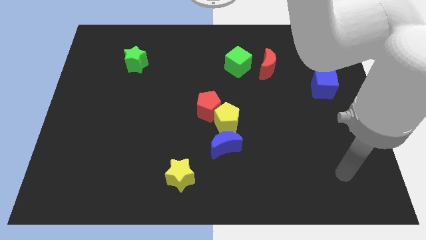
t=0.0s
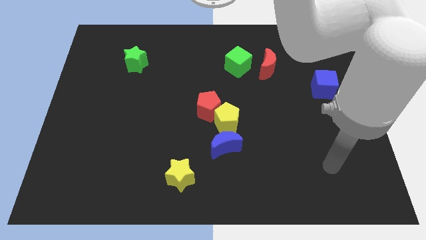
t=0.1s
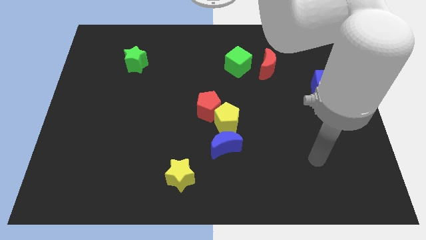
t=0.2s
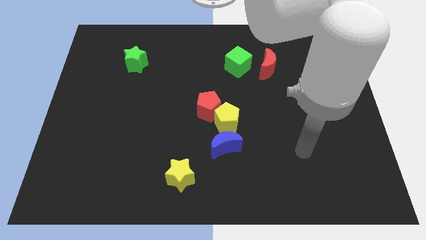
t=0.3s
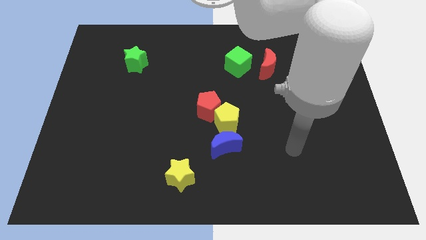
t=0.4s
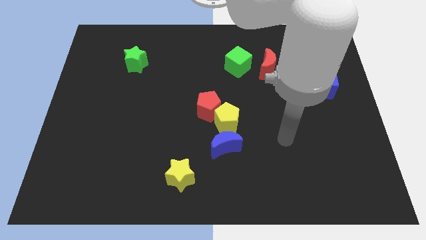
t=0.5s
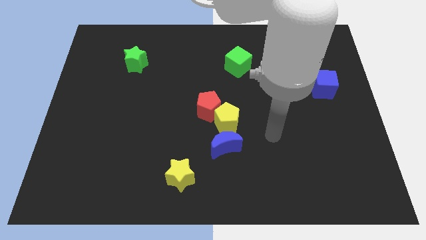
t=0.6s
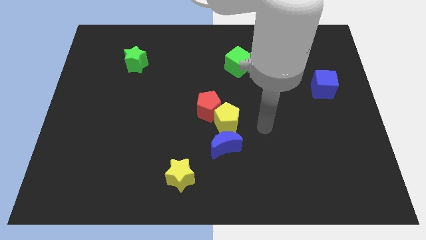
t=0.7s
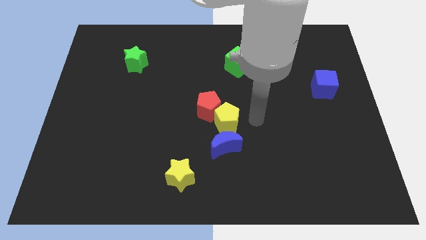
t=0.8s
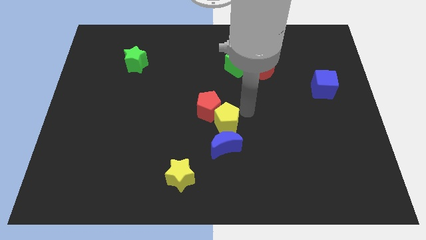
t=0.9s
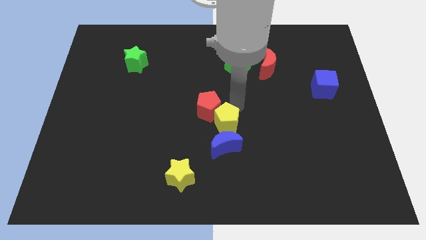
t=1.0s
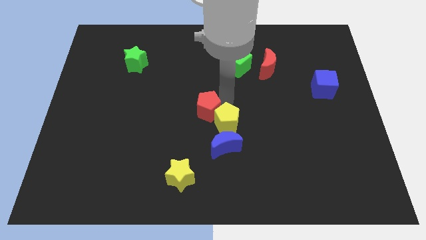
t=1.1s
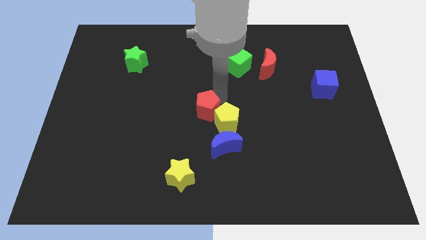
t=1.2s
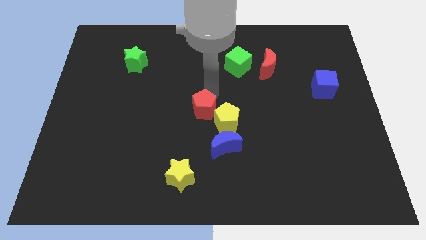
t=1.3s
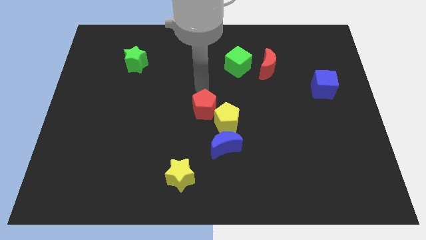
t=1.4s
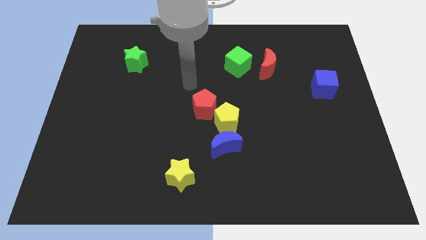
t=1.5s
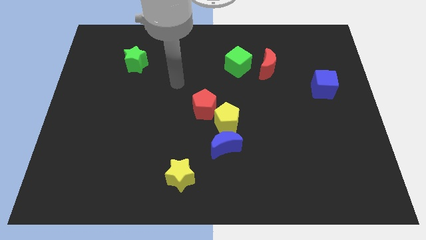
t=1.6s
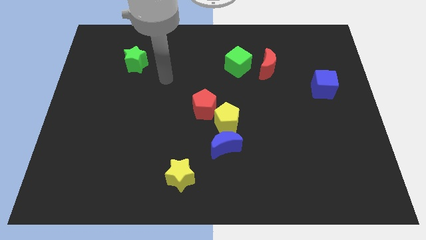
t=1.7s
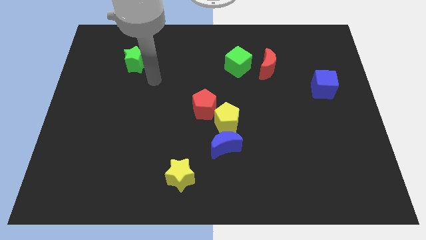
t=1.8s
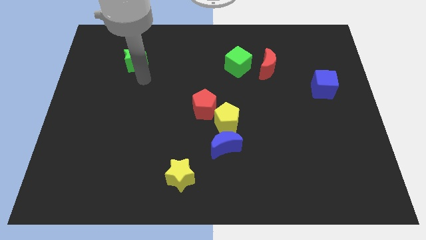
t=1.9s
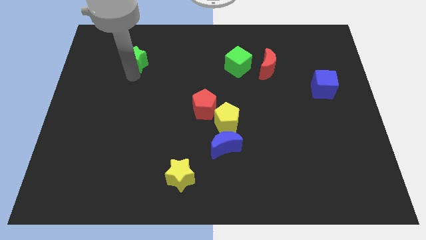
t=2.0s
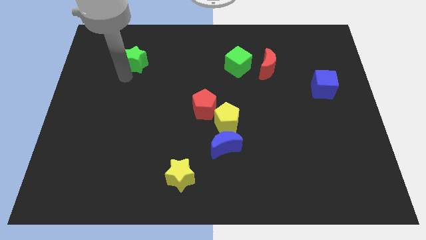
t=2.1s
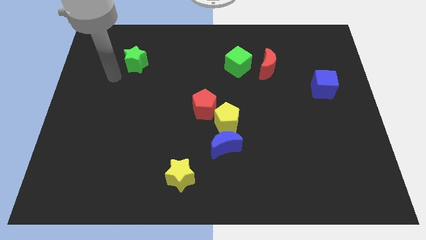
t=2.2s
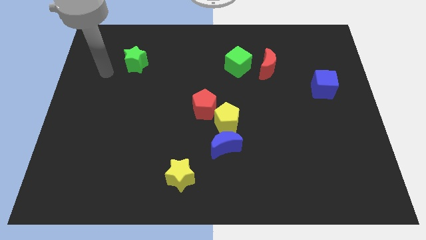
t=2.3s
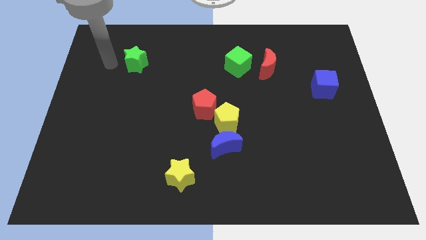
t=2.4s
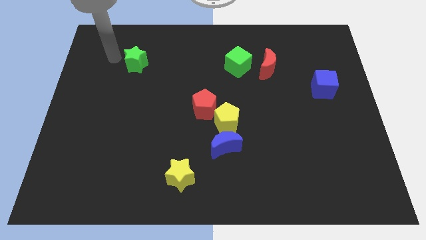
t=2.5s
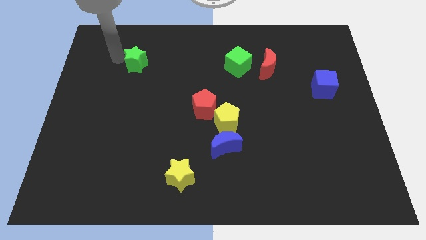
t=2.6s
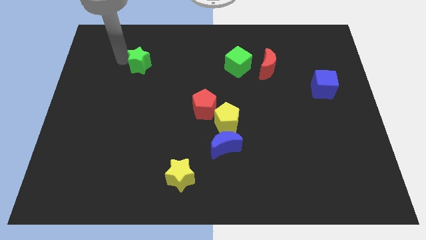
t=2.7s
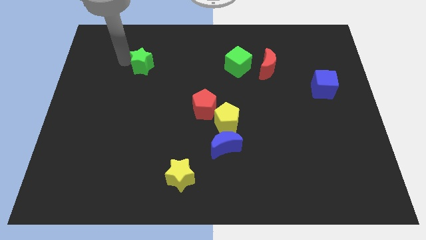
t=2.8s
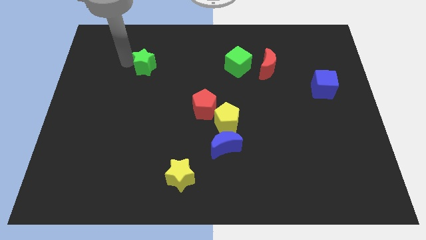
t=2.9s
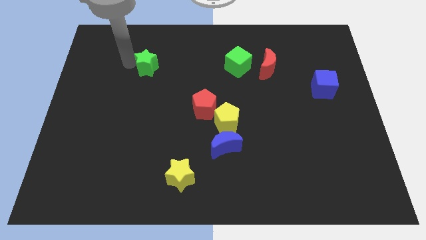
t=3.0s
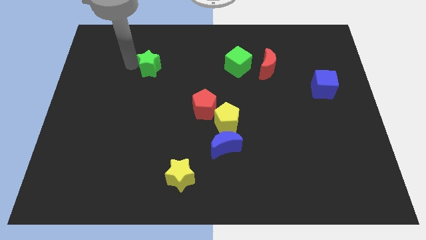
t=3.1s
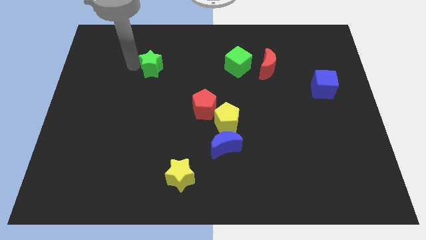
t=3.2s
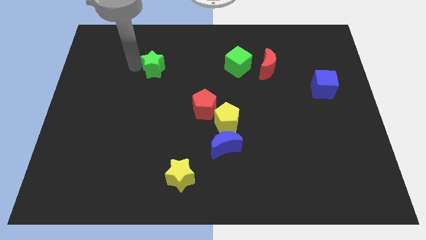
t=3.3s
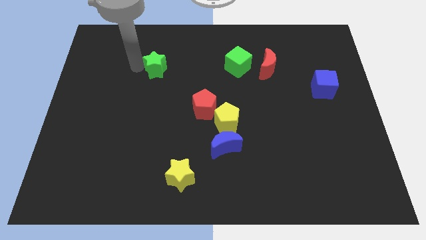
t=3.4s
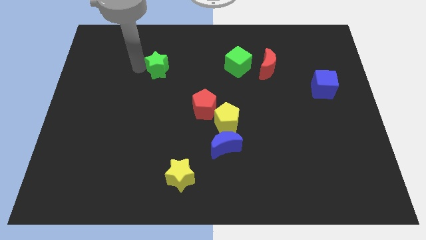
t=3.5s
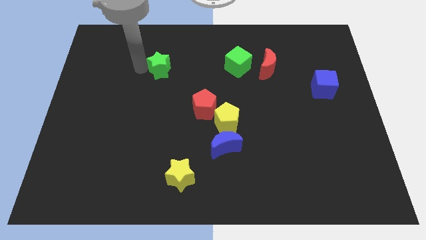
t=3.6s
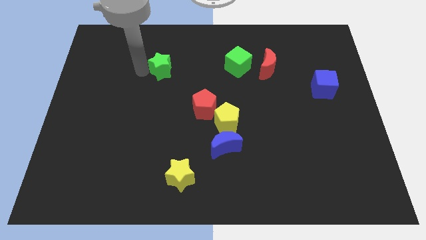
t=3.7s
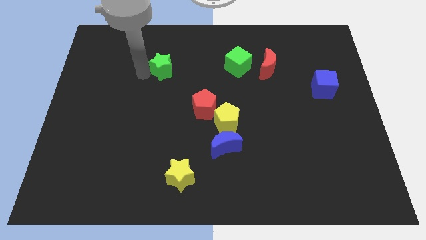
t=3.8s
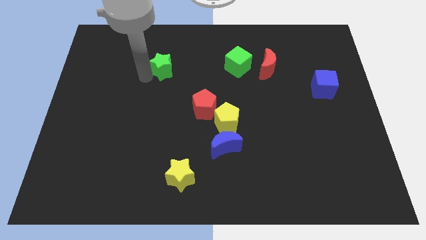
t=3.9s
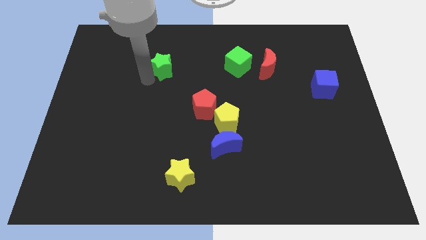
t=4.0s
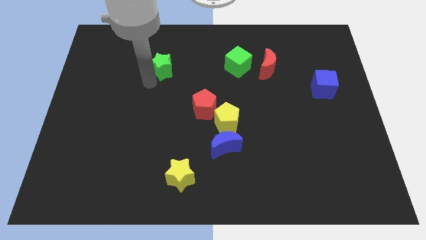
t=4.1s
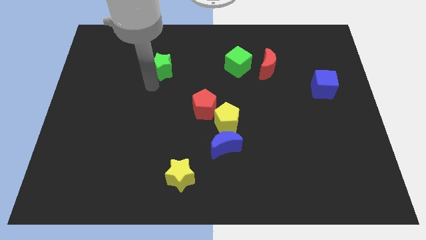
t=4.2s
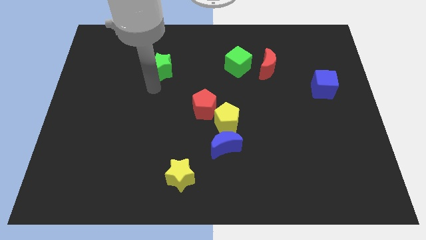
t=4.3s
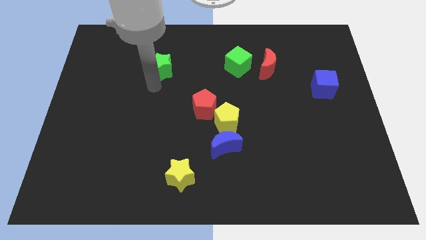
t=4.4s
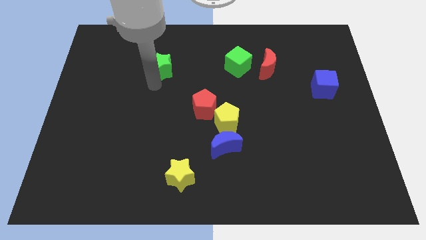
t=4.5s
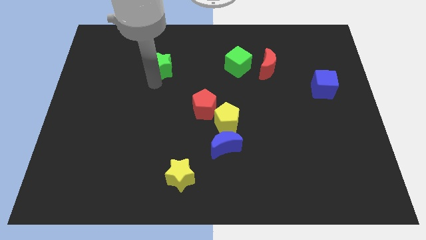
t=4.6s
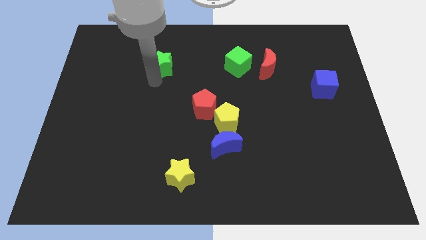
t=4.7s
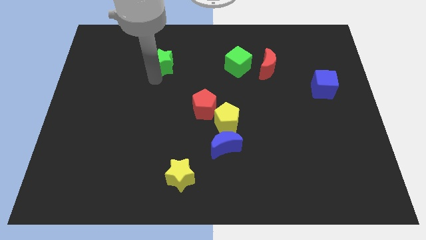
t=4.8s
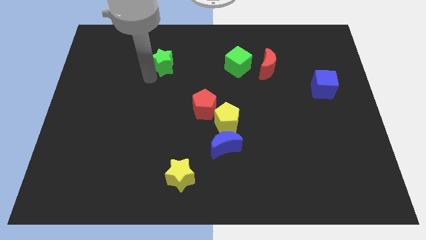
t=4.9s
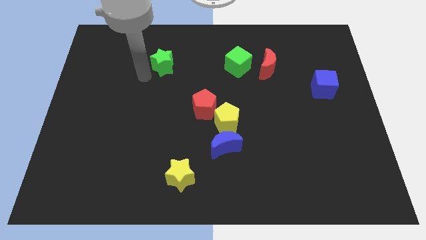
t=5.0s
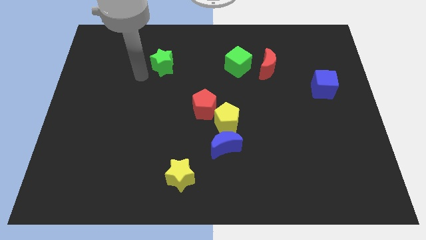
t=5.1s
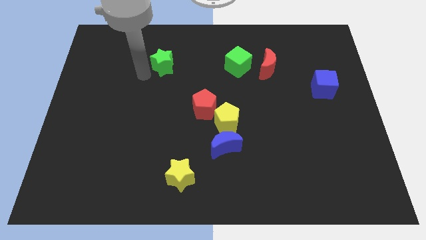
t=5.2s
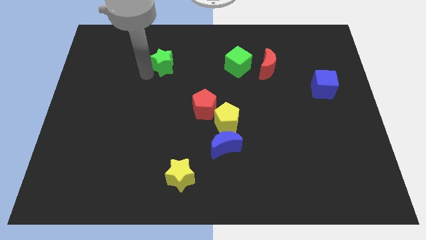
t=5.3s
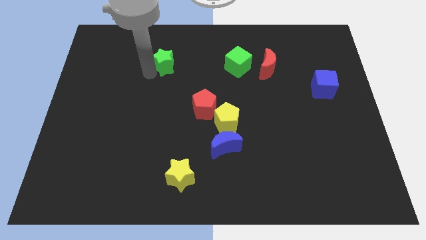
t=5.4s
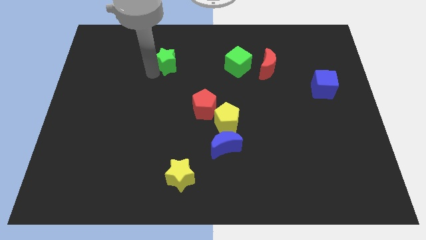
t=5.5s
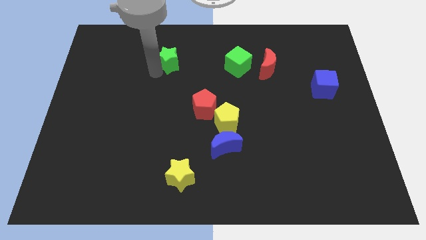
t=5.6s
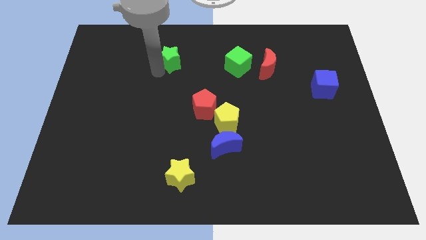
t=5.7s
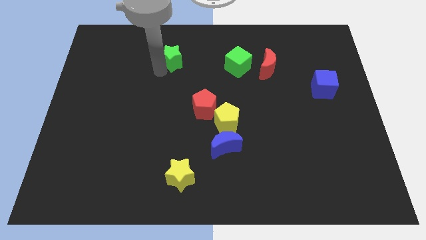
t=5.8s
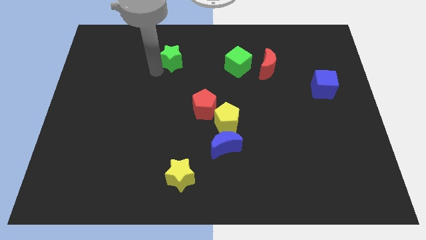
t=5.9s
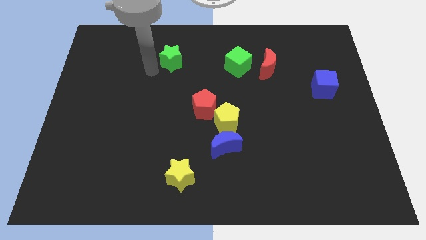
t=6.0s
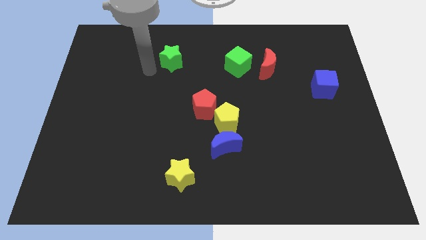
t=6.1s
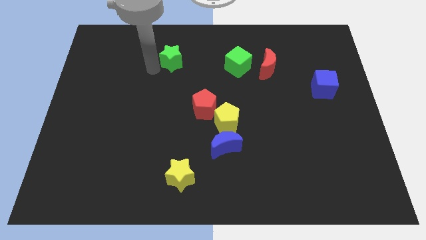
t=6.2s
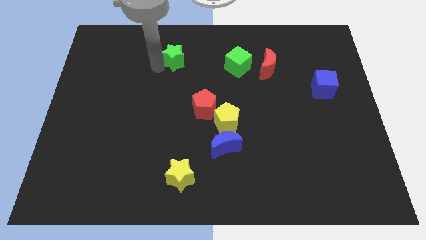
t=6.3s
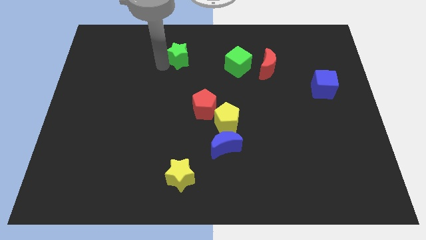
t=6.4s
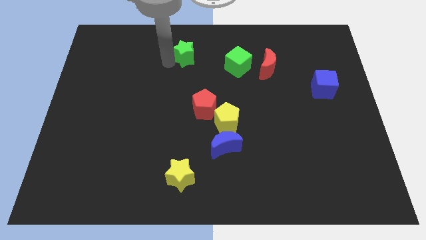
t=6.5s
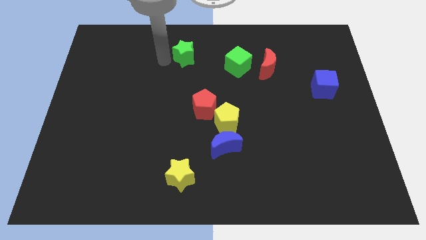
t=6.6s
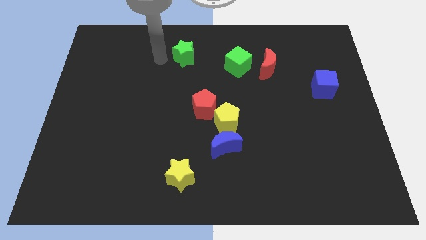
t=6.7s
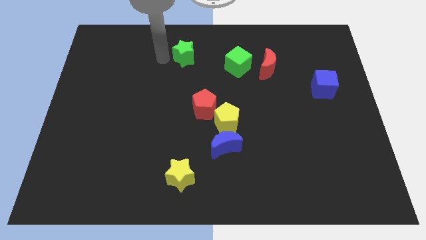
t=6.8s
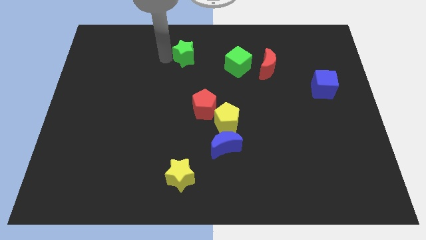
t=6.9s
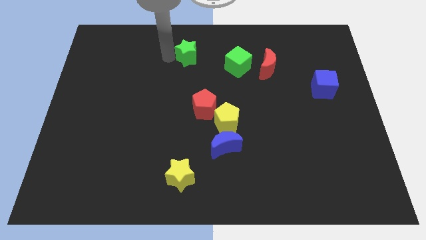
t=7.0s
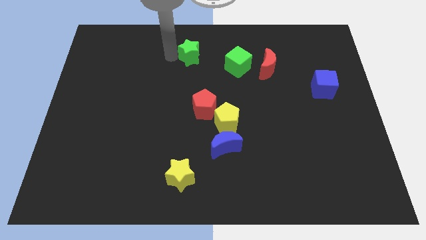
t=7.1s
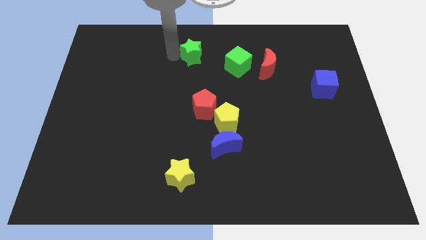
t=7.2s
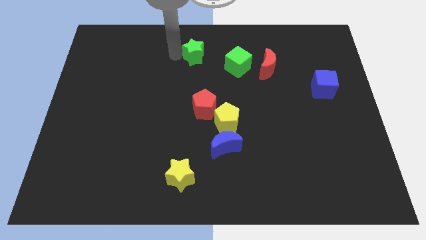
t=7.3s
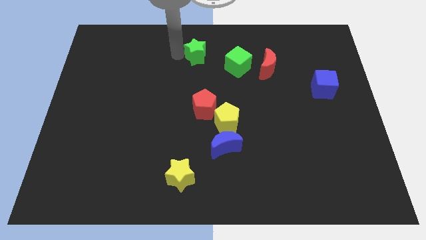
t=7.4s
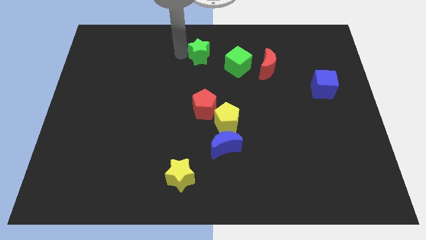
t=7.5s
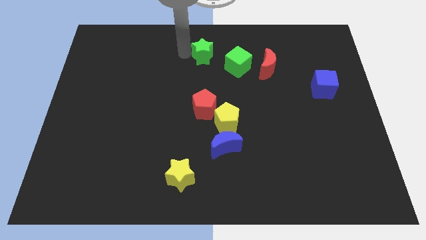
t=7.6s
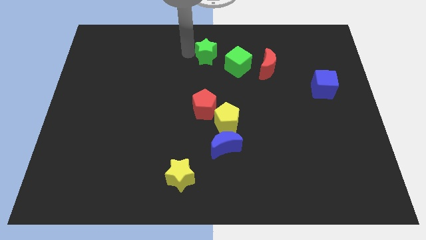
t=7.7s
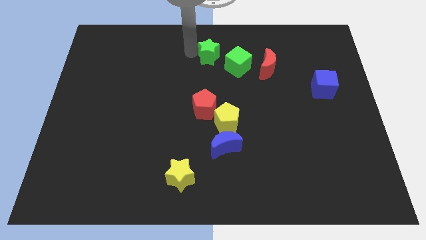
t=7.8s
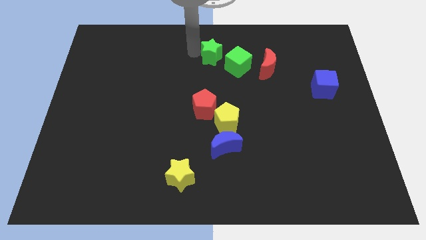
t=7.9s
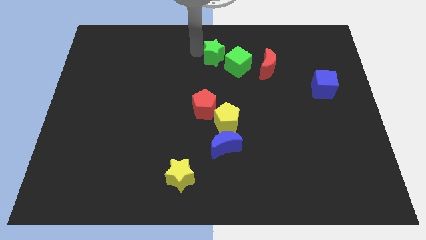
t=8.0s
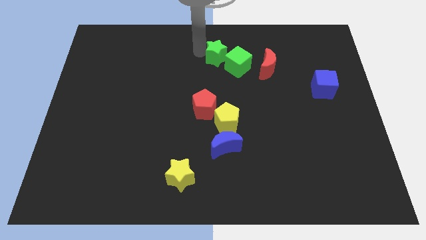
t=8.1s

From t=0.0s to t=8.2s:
push the green star to the left of the red moon
